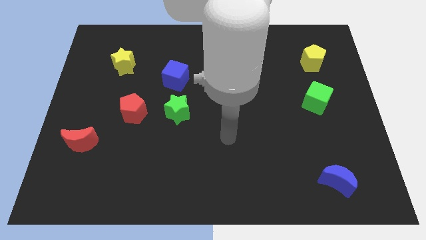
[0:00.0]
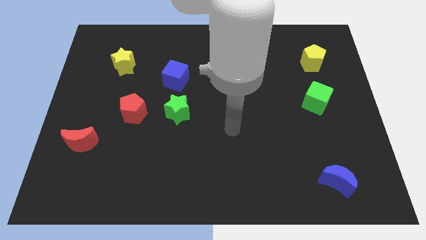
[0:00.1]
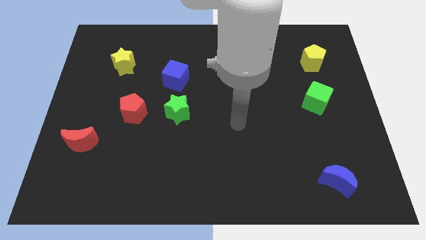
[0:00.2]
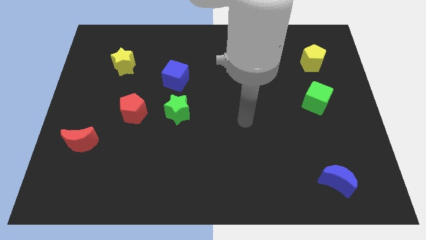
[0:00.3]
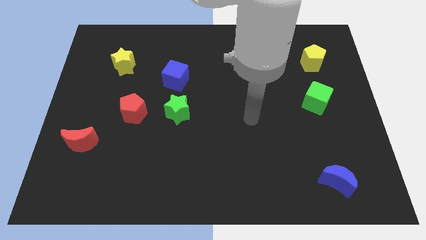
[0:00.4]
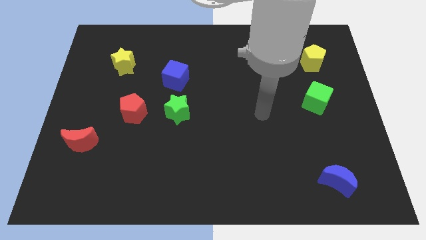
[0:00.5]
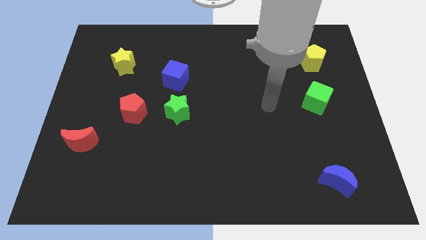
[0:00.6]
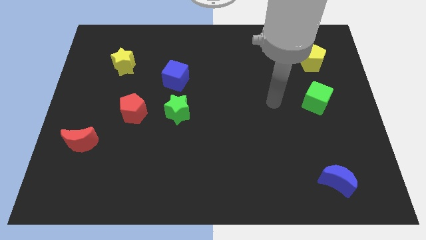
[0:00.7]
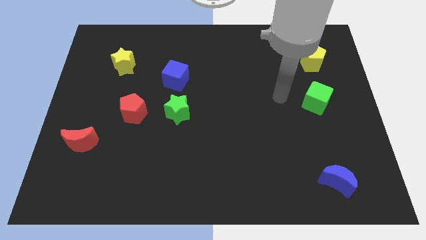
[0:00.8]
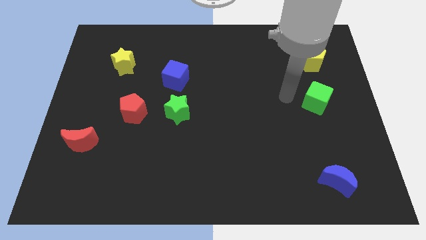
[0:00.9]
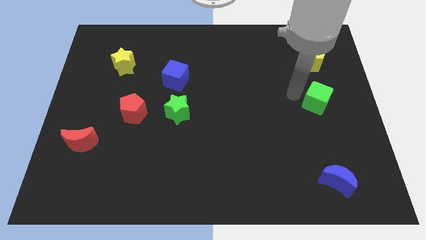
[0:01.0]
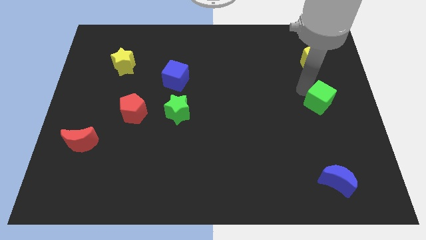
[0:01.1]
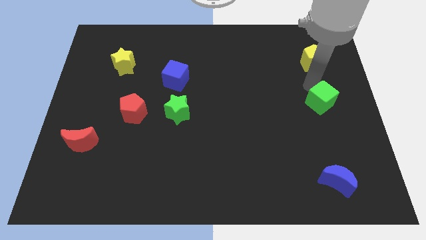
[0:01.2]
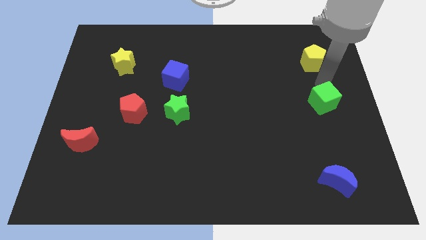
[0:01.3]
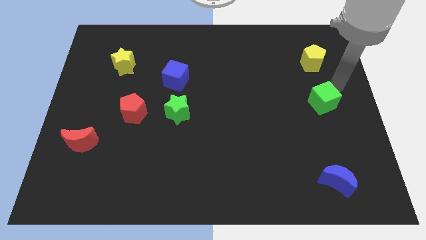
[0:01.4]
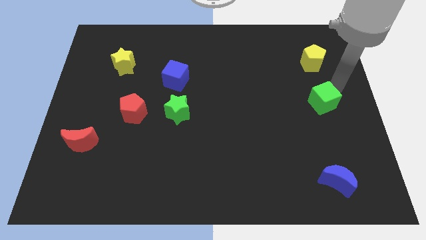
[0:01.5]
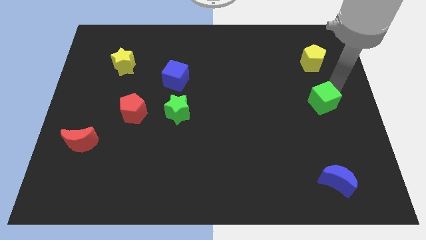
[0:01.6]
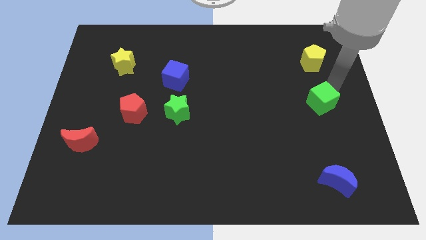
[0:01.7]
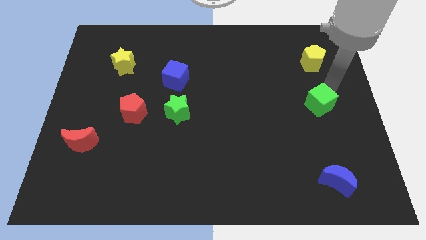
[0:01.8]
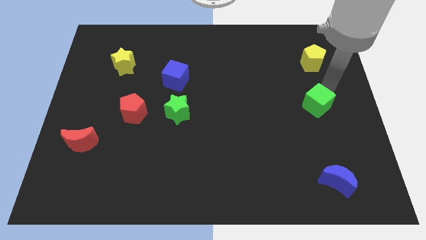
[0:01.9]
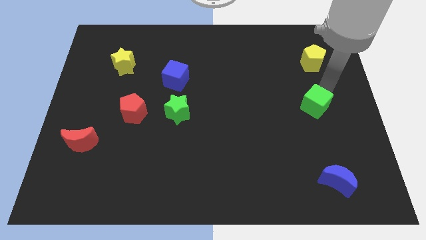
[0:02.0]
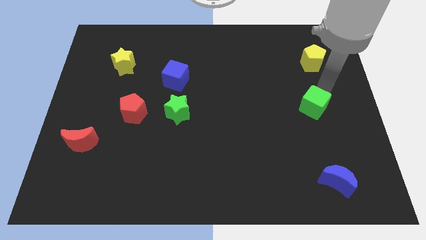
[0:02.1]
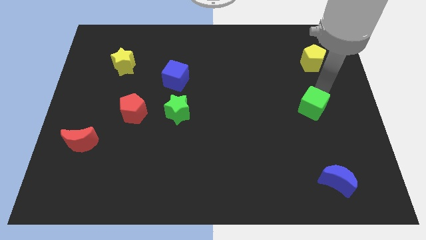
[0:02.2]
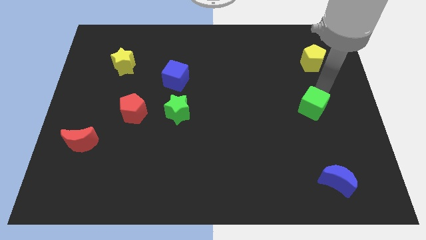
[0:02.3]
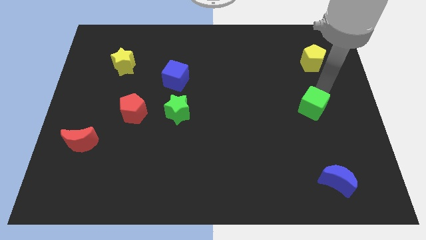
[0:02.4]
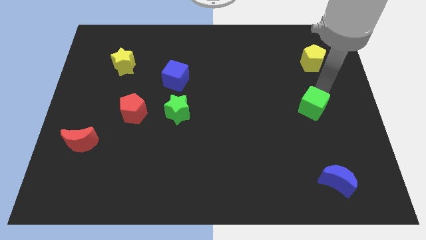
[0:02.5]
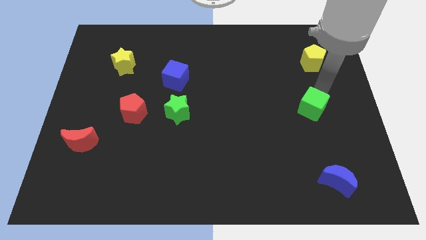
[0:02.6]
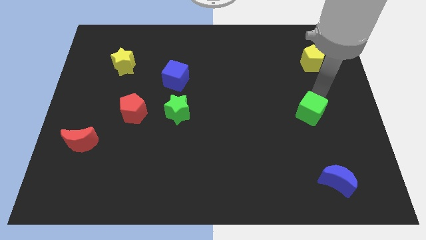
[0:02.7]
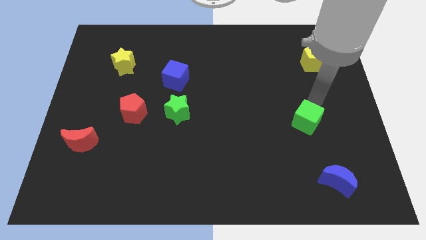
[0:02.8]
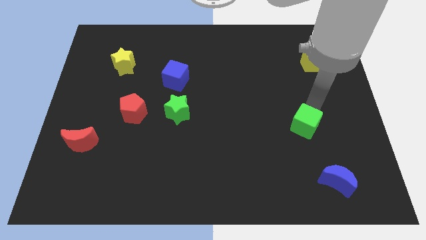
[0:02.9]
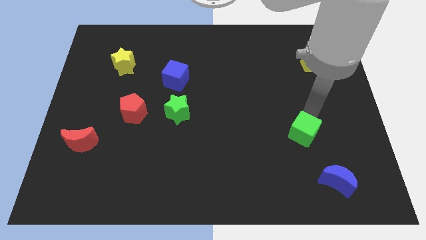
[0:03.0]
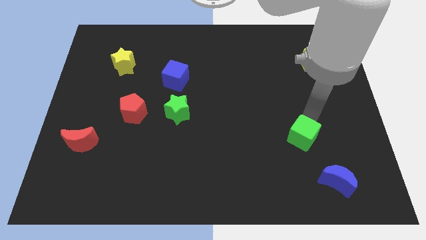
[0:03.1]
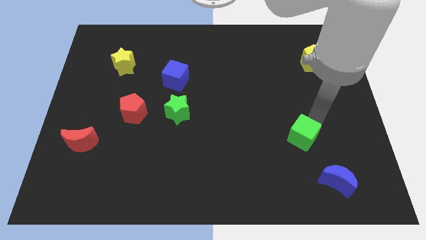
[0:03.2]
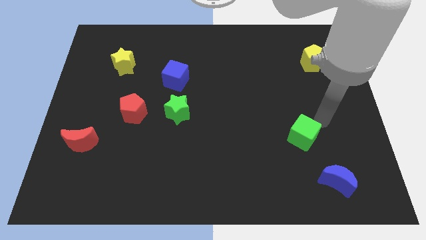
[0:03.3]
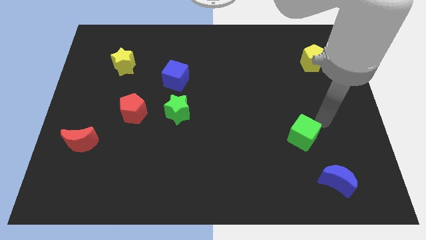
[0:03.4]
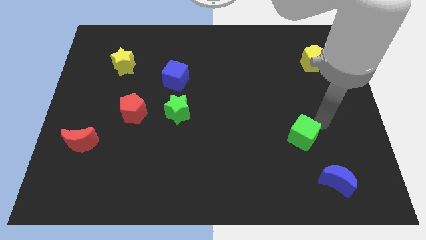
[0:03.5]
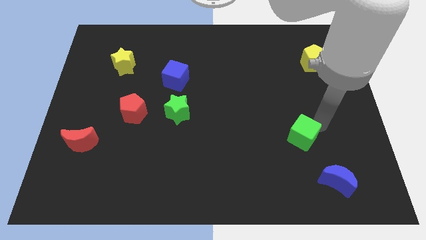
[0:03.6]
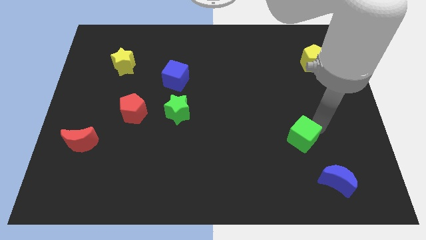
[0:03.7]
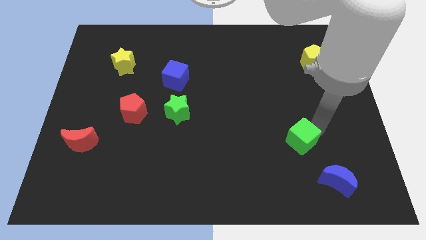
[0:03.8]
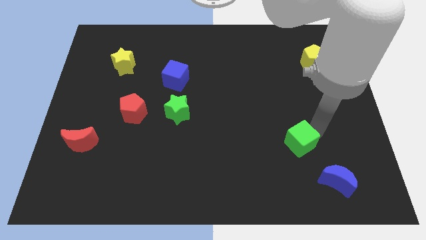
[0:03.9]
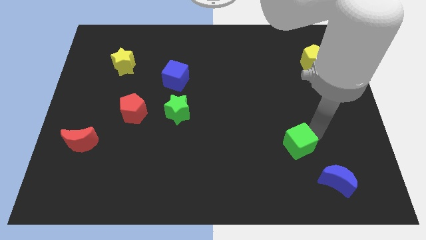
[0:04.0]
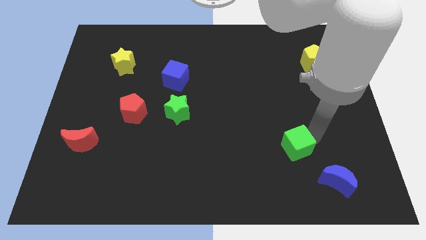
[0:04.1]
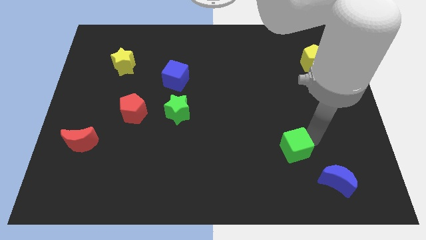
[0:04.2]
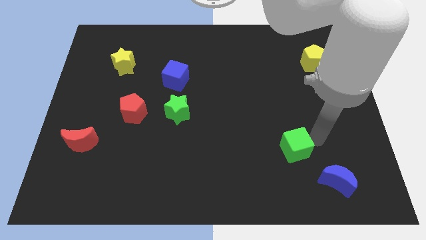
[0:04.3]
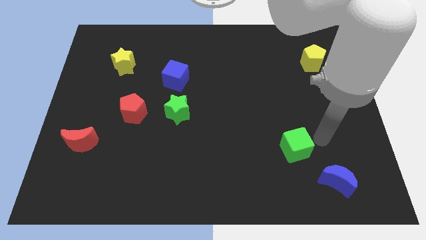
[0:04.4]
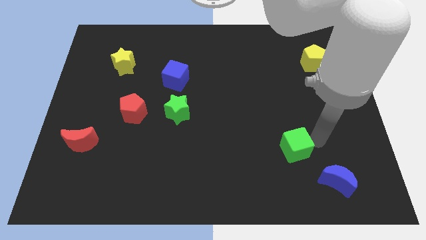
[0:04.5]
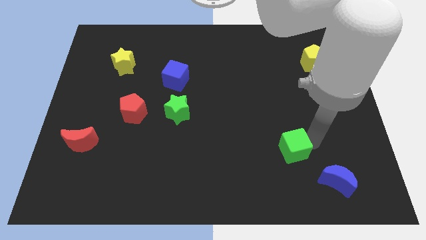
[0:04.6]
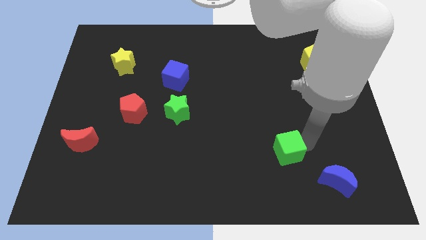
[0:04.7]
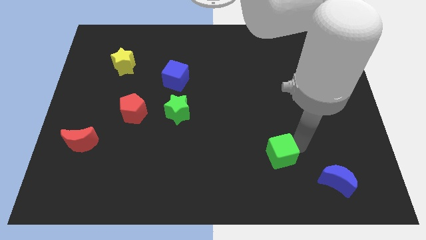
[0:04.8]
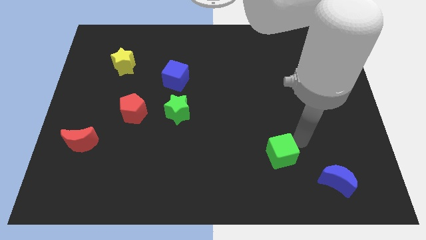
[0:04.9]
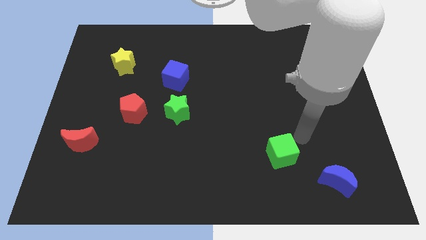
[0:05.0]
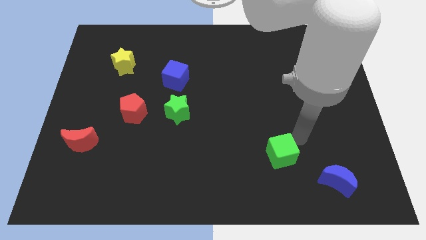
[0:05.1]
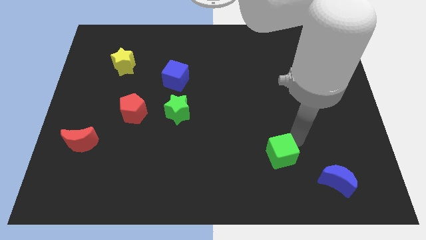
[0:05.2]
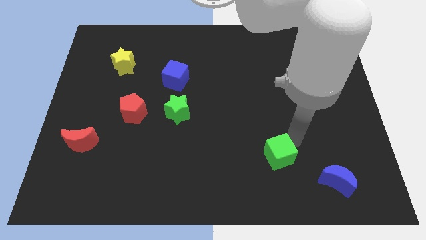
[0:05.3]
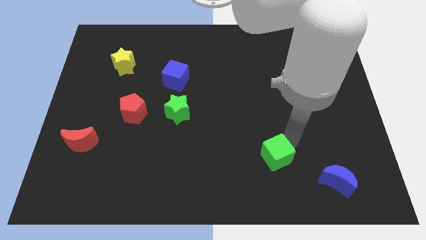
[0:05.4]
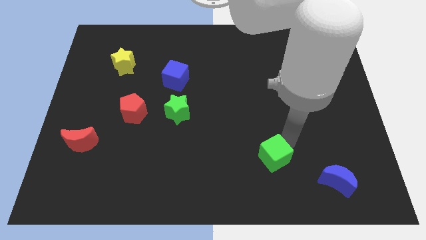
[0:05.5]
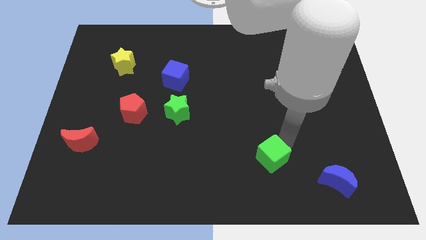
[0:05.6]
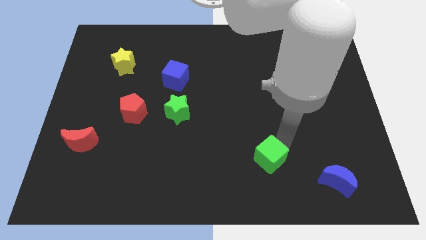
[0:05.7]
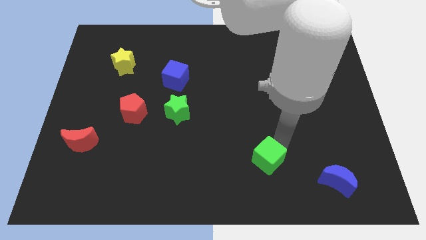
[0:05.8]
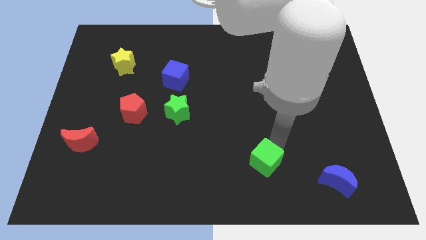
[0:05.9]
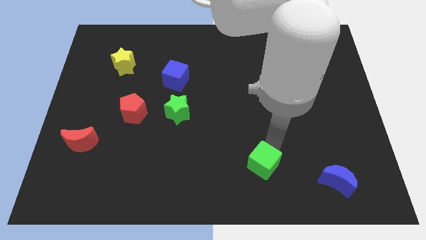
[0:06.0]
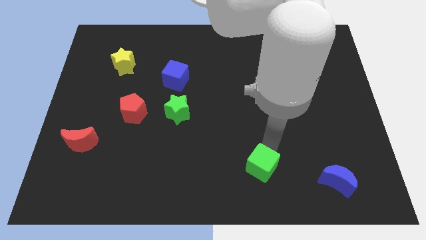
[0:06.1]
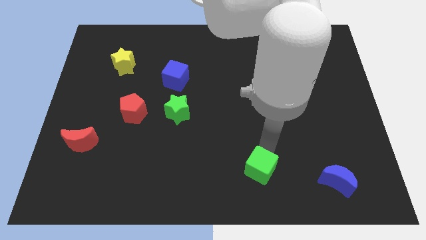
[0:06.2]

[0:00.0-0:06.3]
put the green cube to the bottom side
